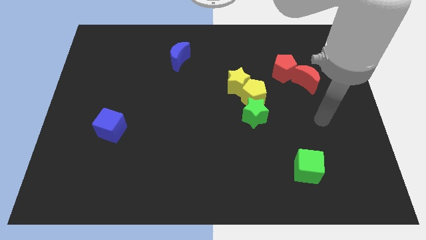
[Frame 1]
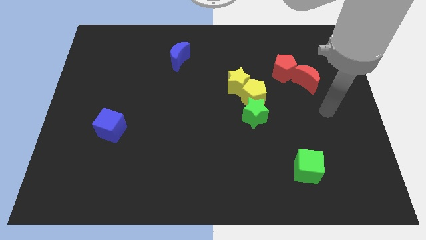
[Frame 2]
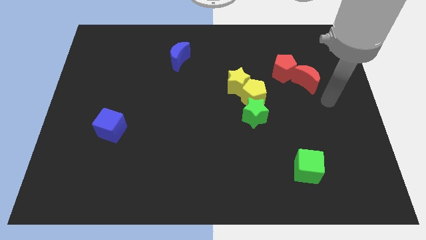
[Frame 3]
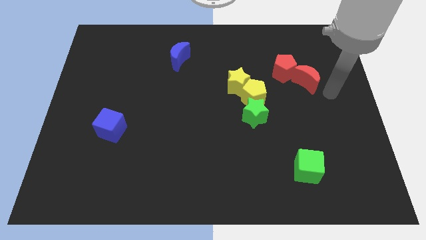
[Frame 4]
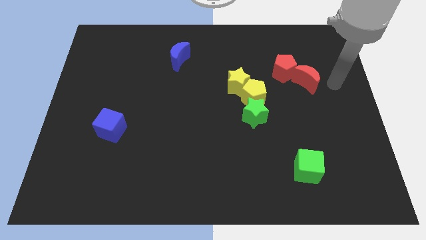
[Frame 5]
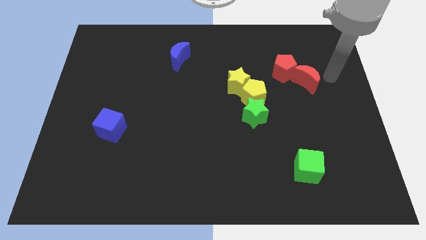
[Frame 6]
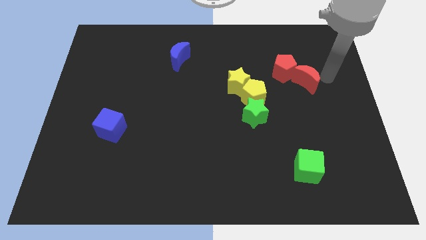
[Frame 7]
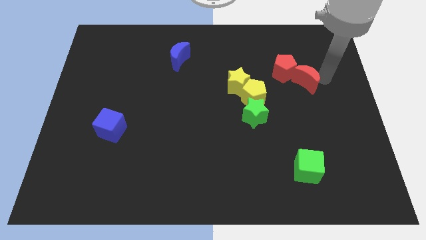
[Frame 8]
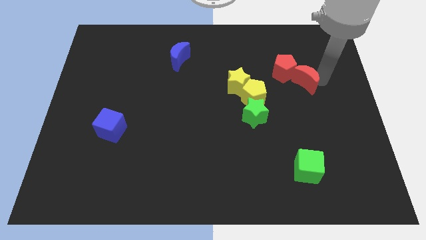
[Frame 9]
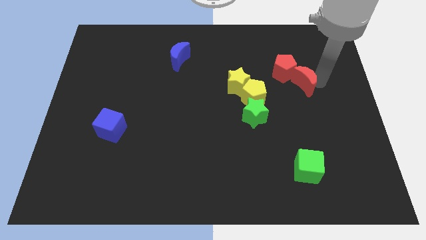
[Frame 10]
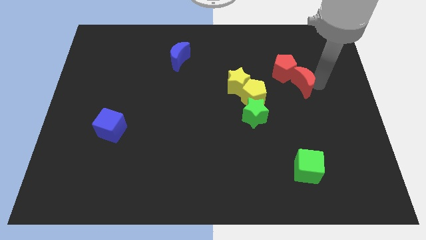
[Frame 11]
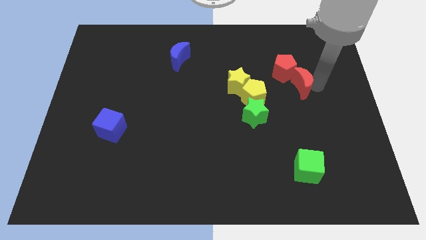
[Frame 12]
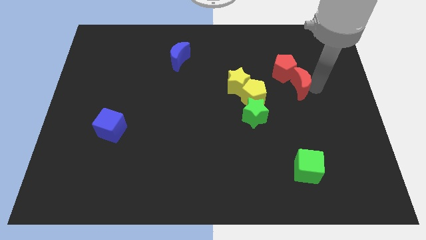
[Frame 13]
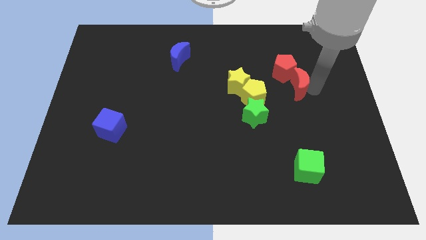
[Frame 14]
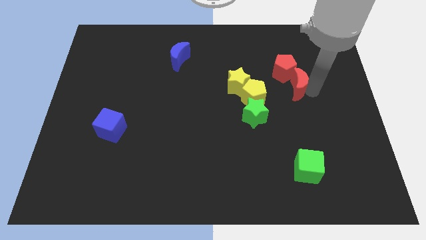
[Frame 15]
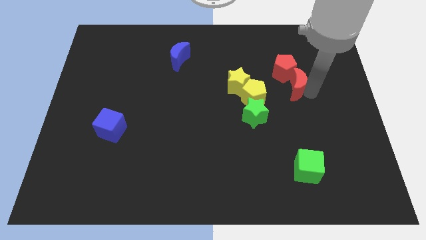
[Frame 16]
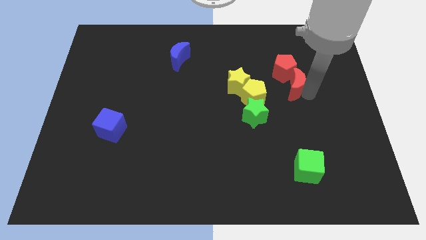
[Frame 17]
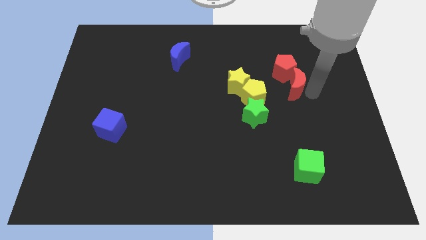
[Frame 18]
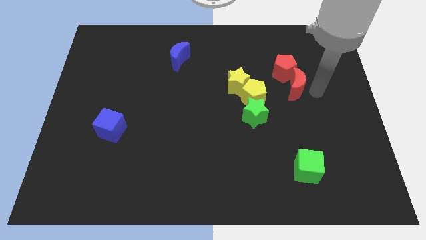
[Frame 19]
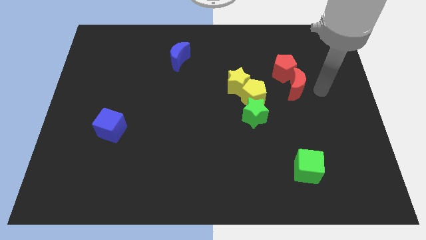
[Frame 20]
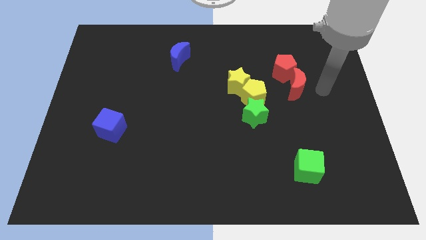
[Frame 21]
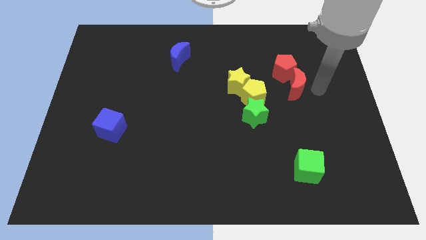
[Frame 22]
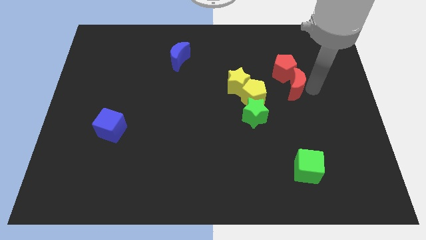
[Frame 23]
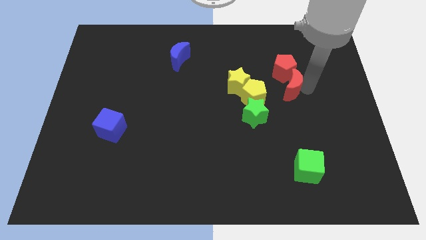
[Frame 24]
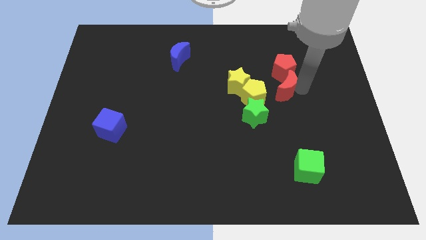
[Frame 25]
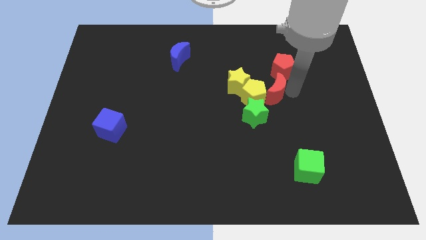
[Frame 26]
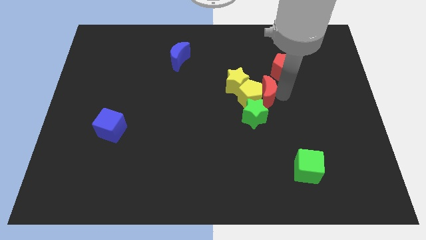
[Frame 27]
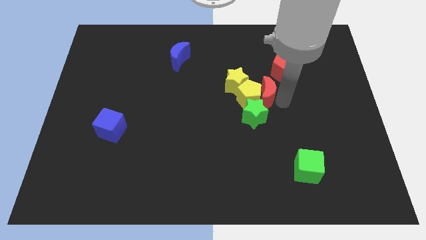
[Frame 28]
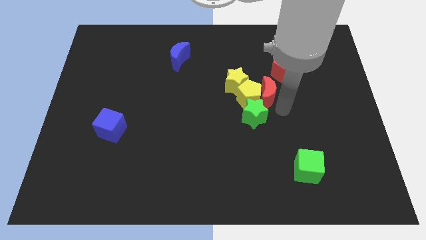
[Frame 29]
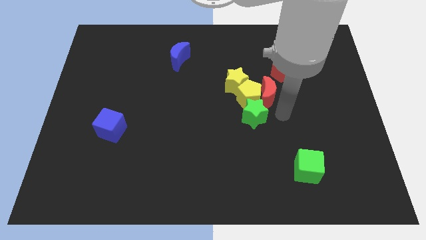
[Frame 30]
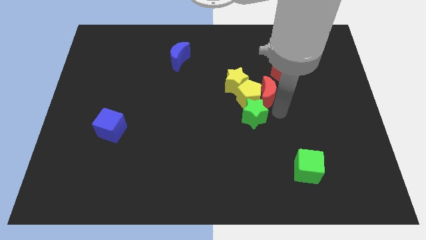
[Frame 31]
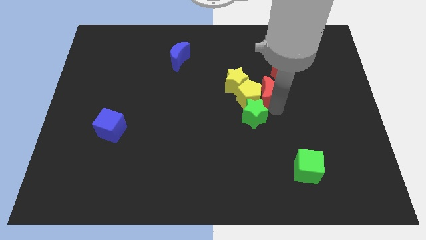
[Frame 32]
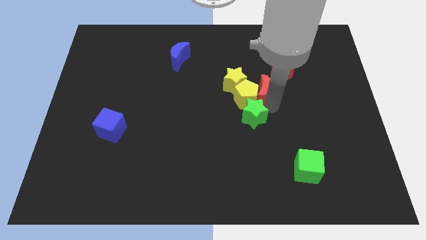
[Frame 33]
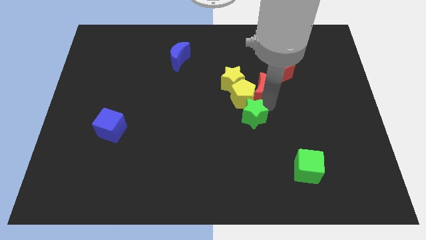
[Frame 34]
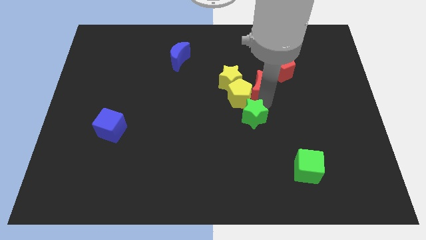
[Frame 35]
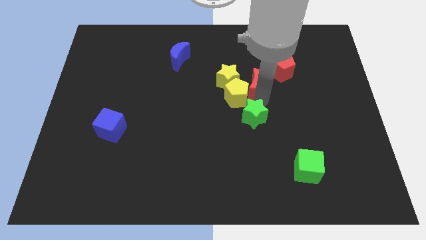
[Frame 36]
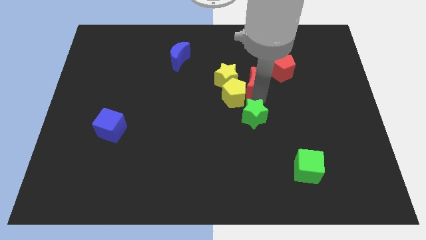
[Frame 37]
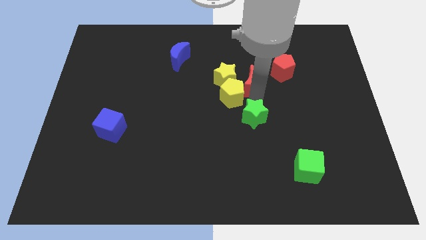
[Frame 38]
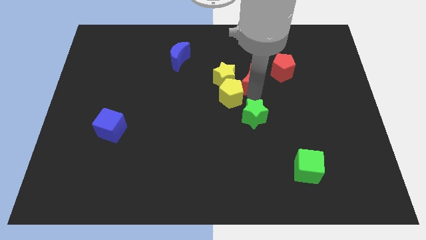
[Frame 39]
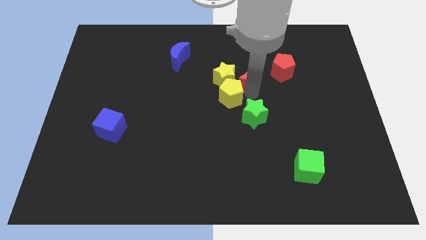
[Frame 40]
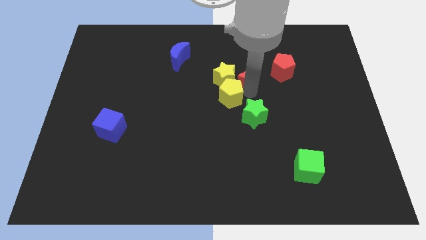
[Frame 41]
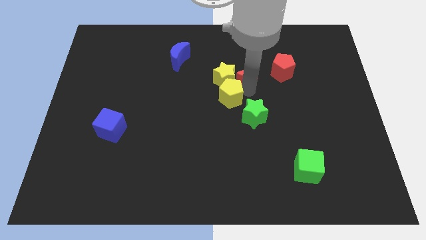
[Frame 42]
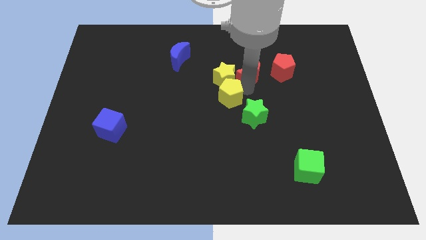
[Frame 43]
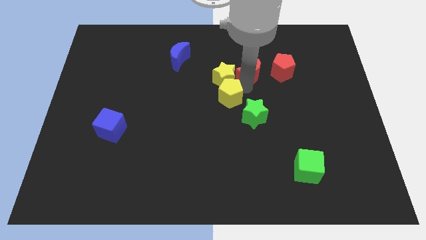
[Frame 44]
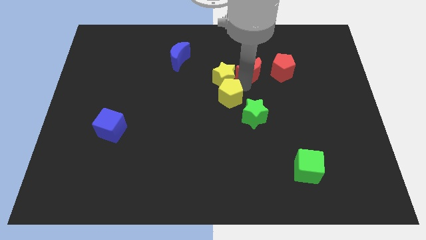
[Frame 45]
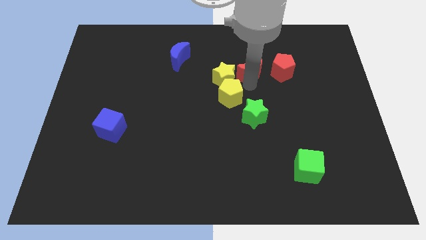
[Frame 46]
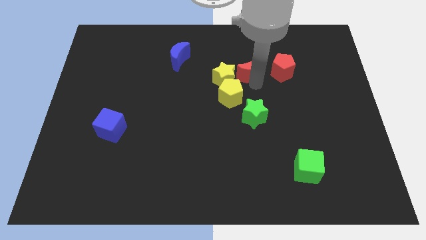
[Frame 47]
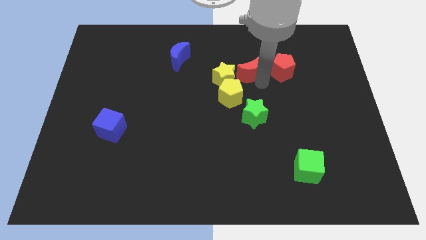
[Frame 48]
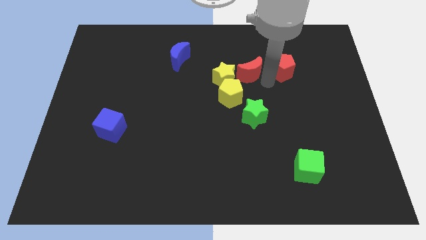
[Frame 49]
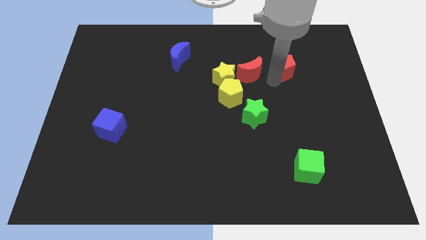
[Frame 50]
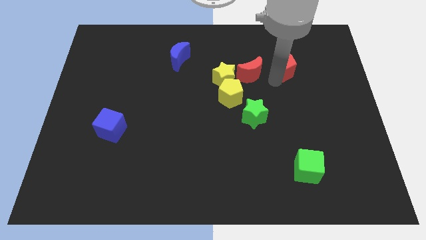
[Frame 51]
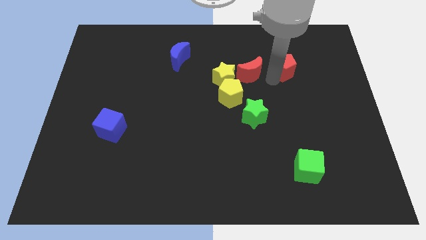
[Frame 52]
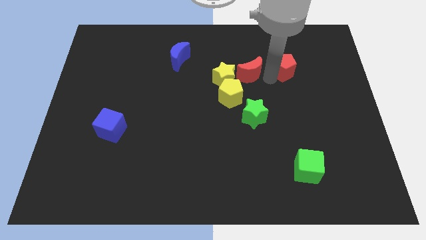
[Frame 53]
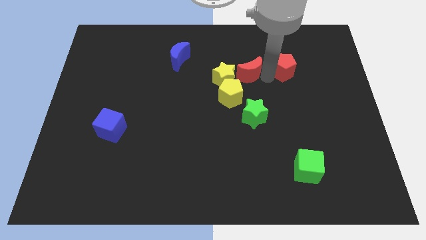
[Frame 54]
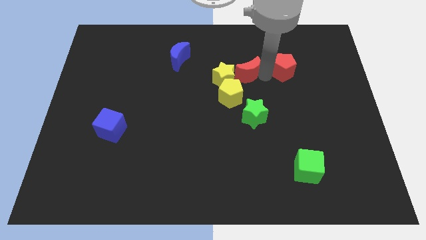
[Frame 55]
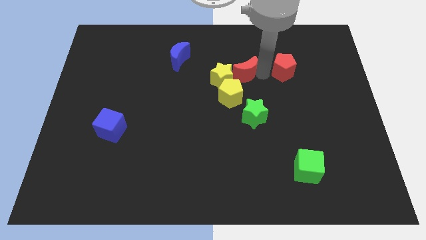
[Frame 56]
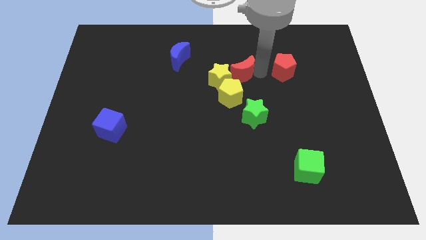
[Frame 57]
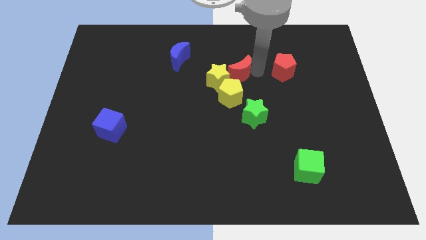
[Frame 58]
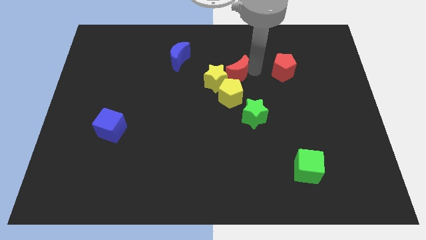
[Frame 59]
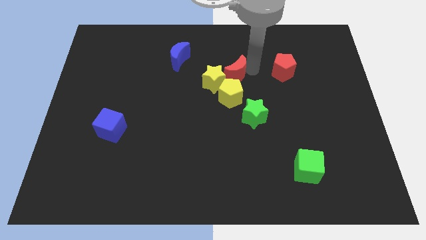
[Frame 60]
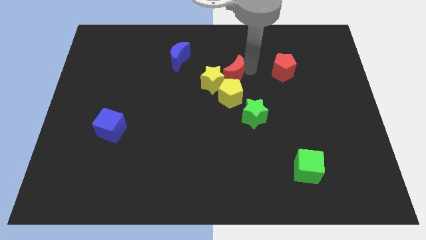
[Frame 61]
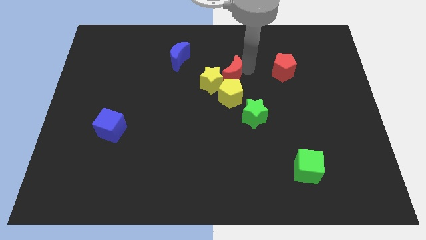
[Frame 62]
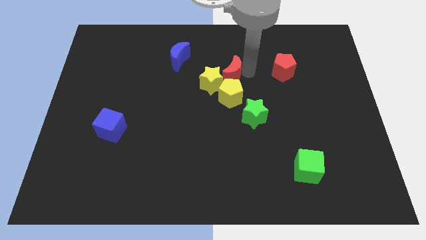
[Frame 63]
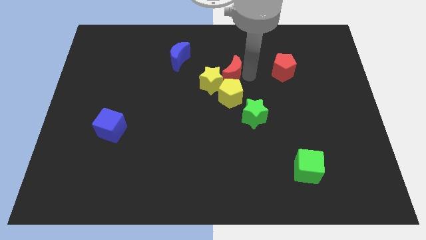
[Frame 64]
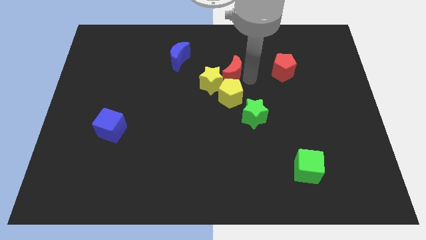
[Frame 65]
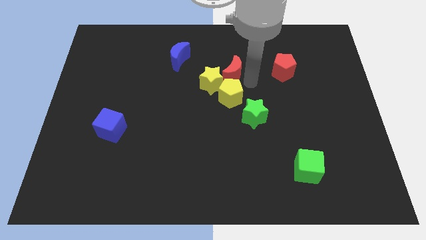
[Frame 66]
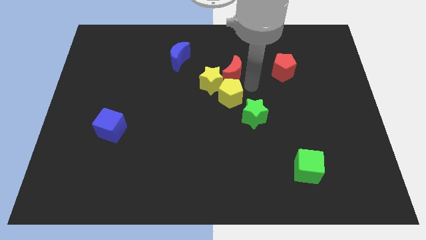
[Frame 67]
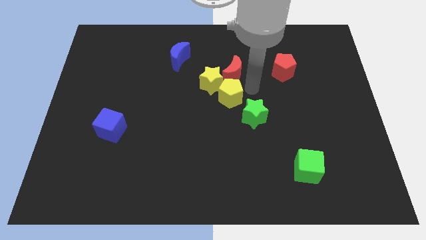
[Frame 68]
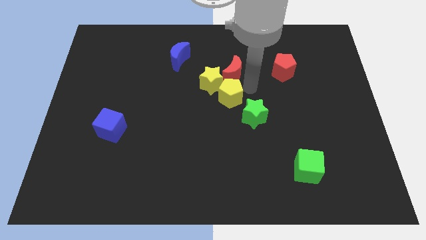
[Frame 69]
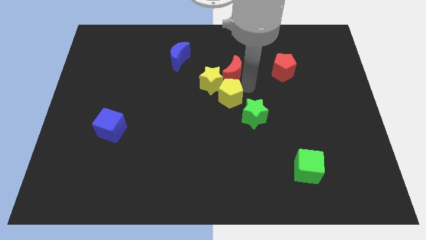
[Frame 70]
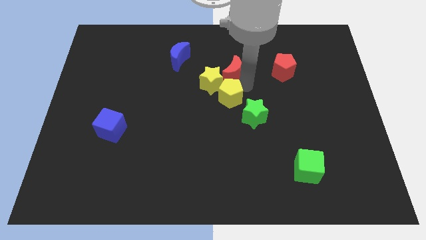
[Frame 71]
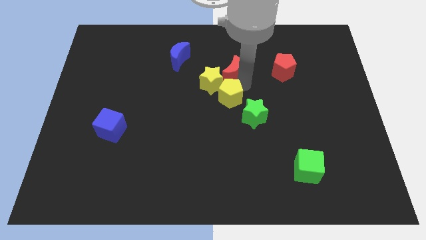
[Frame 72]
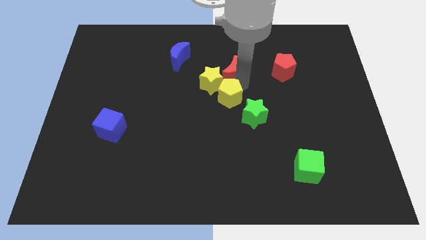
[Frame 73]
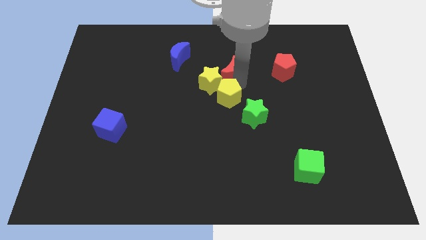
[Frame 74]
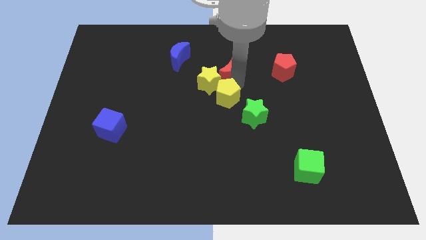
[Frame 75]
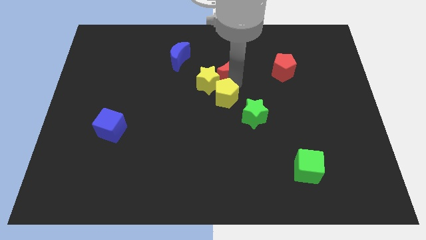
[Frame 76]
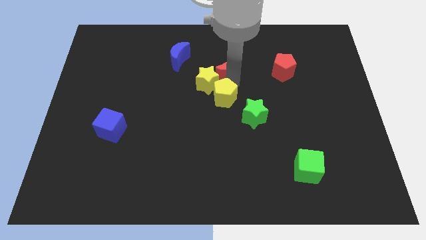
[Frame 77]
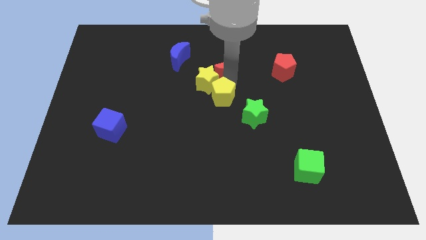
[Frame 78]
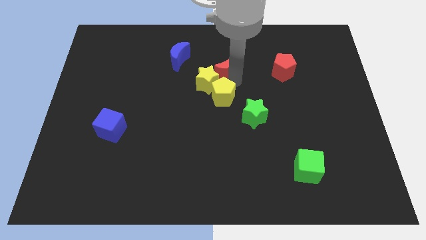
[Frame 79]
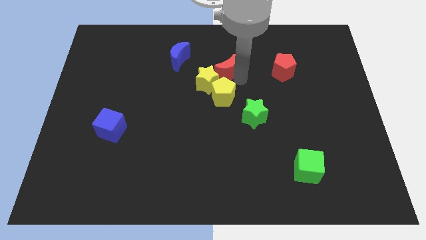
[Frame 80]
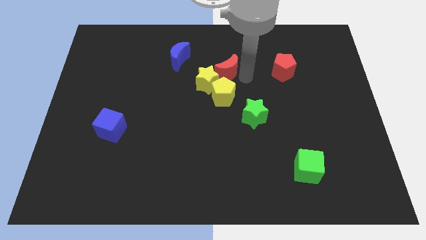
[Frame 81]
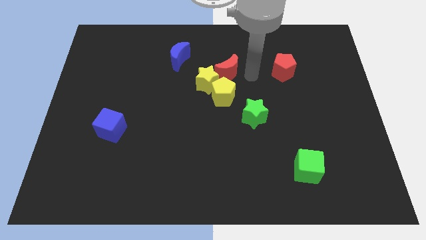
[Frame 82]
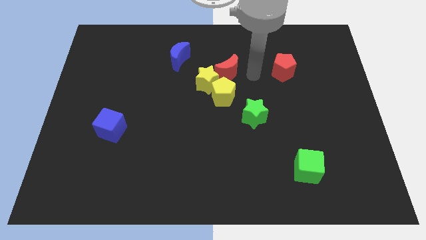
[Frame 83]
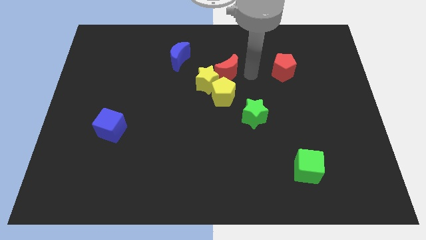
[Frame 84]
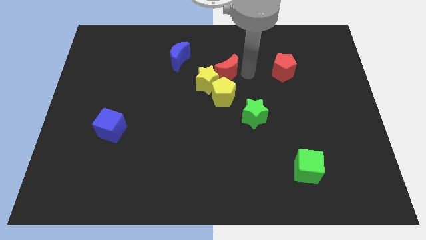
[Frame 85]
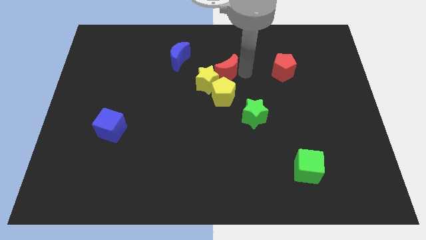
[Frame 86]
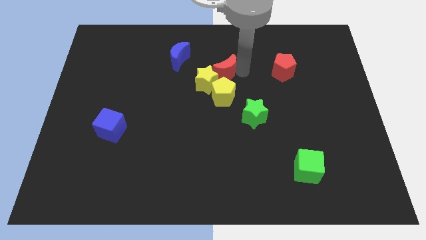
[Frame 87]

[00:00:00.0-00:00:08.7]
push the red moon to the left
